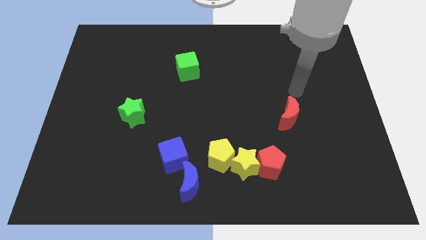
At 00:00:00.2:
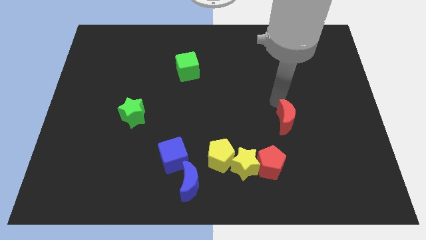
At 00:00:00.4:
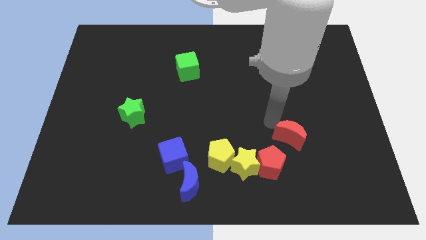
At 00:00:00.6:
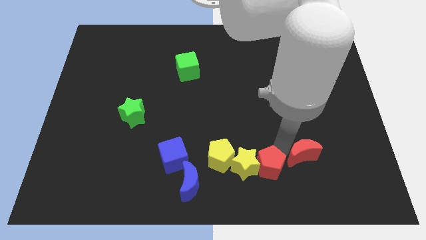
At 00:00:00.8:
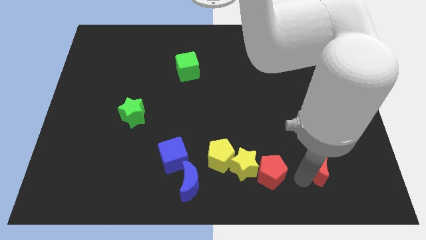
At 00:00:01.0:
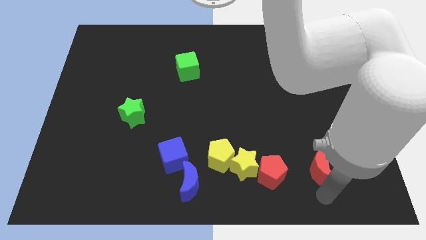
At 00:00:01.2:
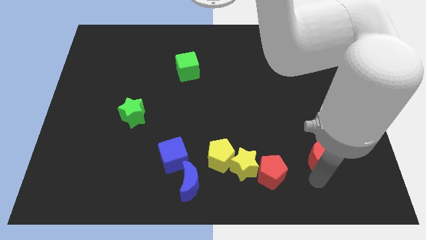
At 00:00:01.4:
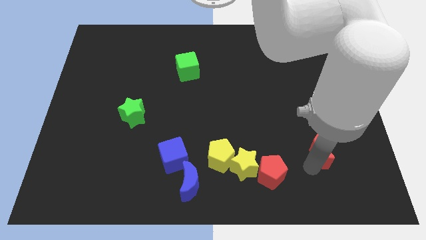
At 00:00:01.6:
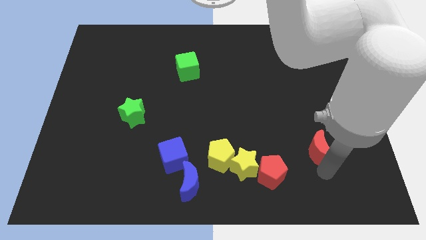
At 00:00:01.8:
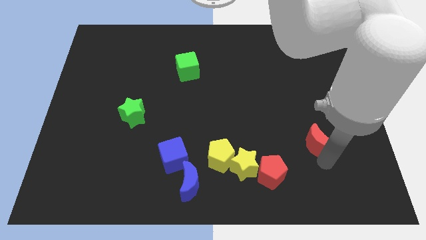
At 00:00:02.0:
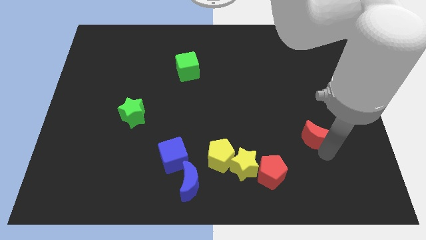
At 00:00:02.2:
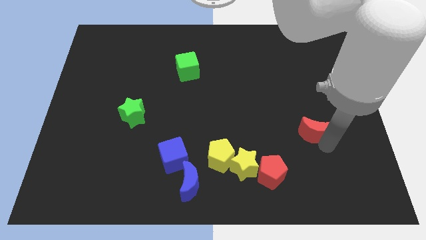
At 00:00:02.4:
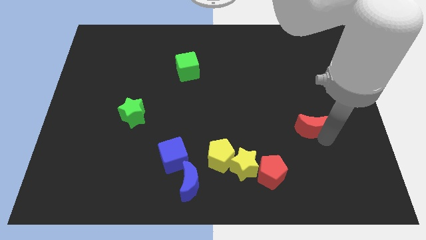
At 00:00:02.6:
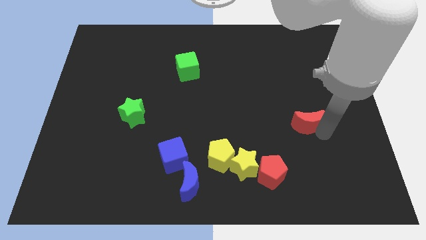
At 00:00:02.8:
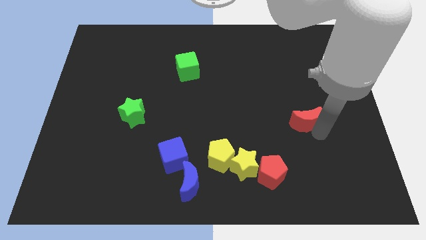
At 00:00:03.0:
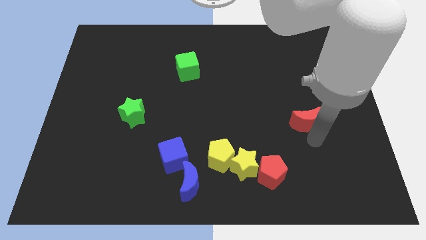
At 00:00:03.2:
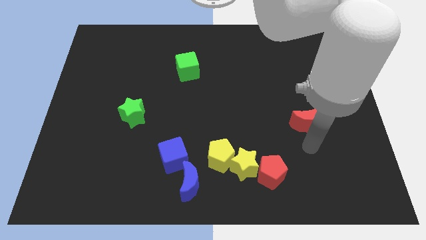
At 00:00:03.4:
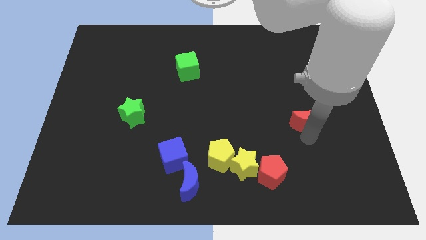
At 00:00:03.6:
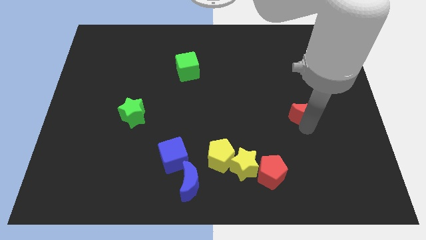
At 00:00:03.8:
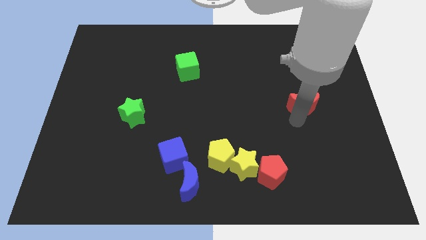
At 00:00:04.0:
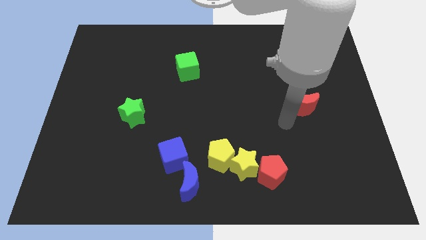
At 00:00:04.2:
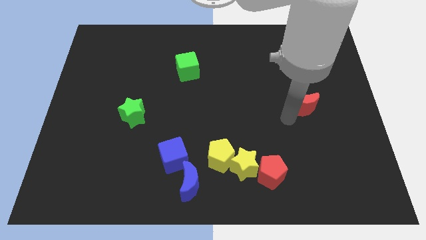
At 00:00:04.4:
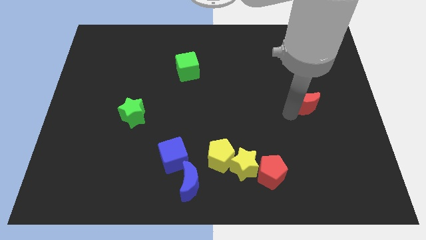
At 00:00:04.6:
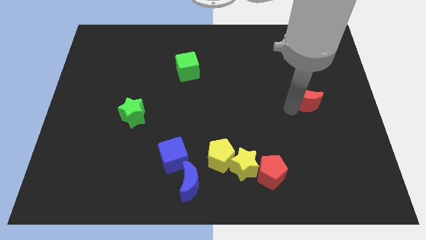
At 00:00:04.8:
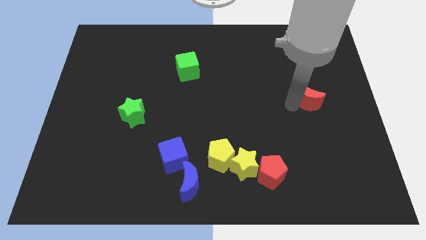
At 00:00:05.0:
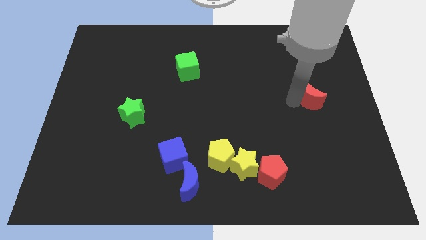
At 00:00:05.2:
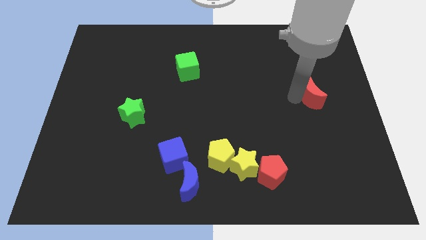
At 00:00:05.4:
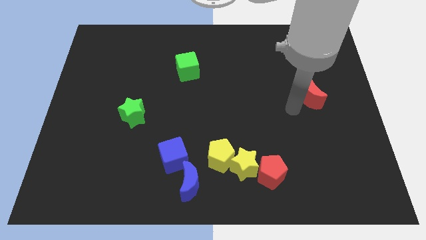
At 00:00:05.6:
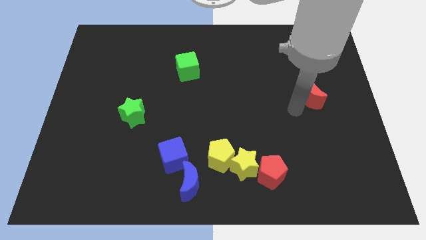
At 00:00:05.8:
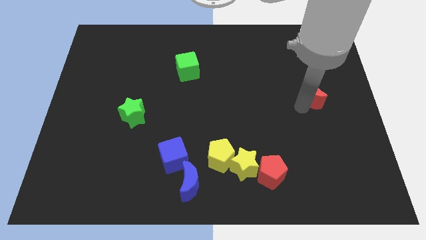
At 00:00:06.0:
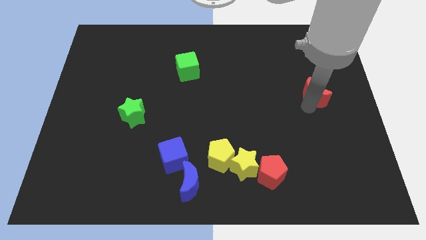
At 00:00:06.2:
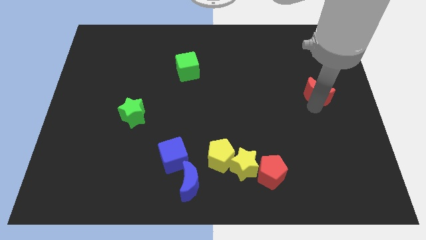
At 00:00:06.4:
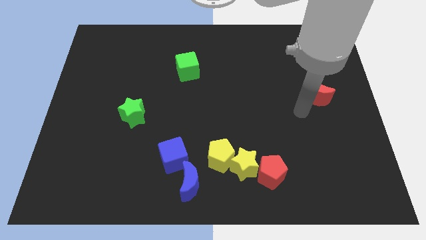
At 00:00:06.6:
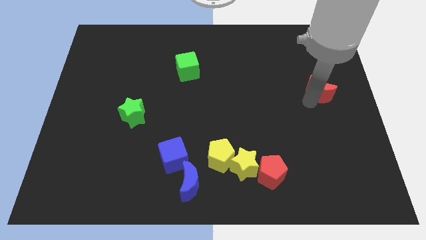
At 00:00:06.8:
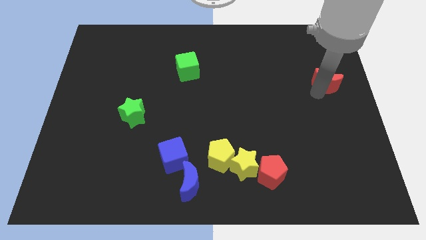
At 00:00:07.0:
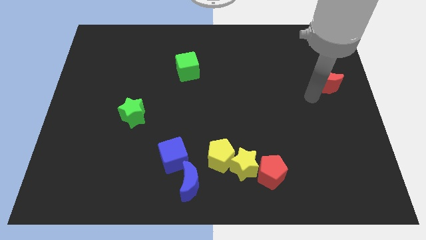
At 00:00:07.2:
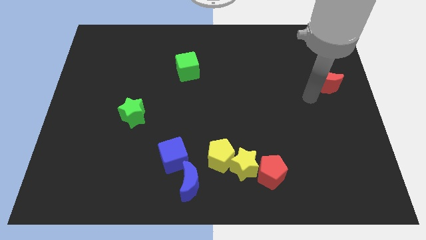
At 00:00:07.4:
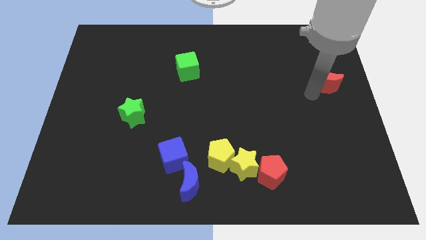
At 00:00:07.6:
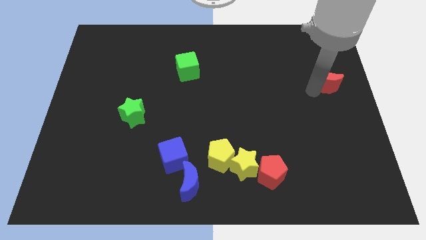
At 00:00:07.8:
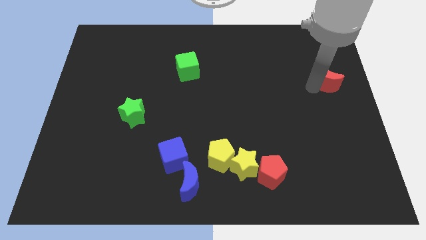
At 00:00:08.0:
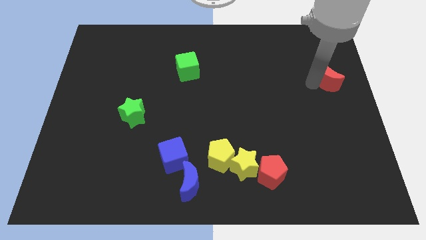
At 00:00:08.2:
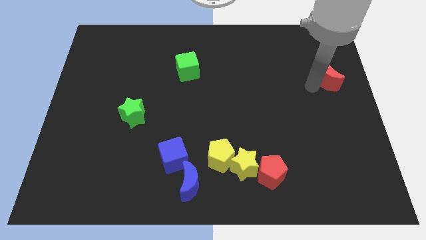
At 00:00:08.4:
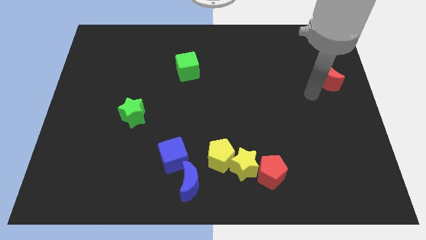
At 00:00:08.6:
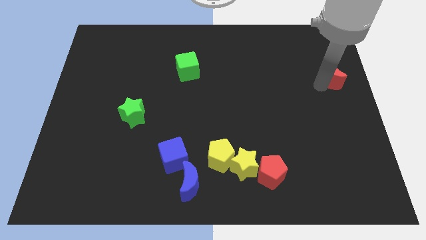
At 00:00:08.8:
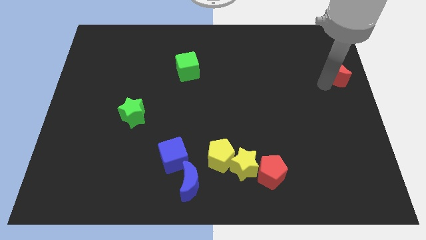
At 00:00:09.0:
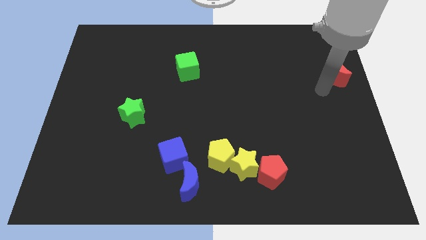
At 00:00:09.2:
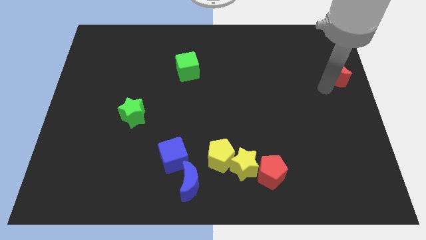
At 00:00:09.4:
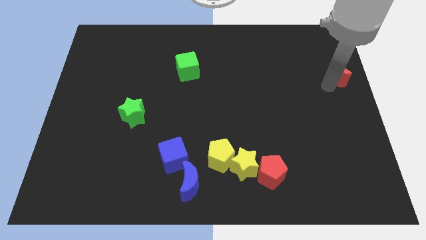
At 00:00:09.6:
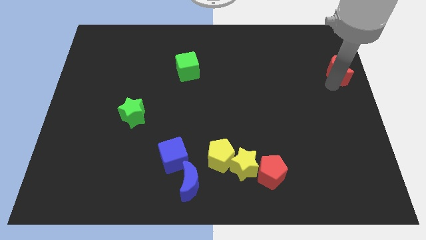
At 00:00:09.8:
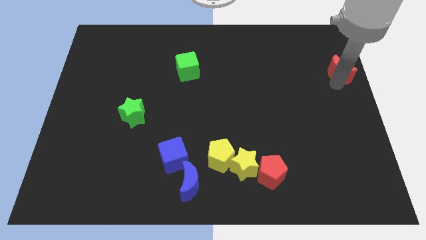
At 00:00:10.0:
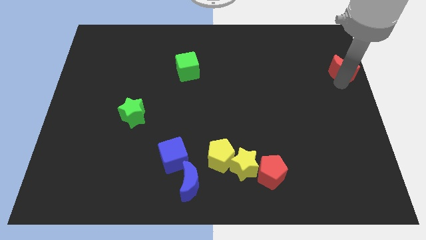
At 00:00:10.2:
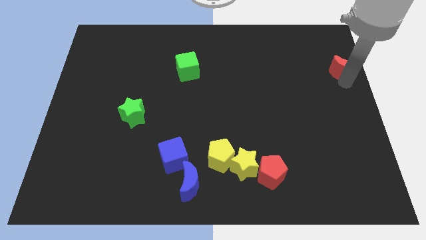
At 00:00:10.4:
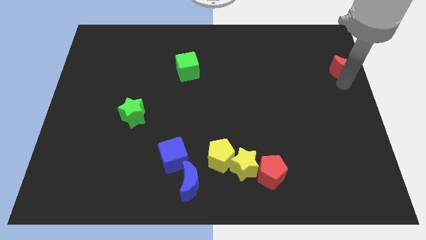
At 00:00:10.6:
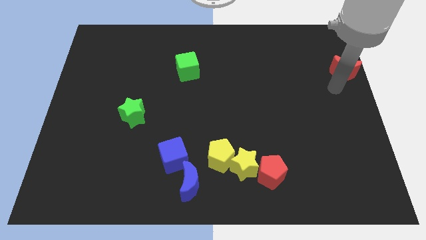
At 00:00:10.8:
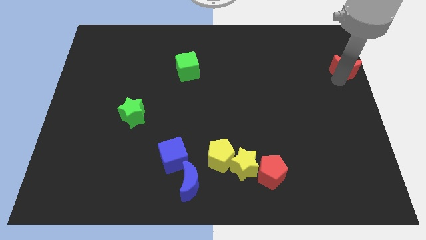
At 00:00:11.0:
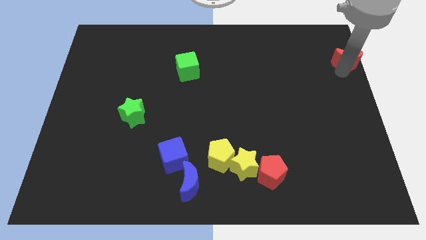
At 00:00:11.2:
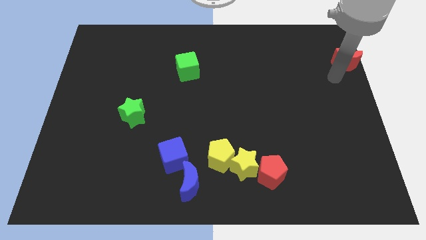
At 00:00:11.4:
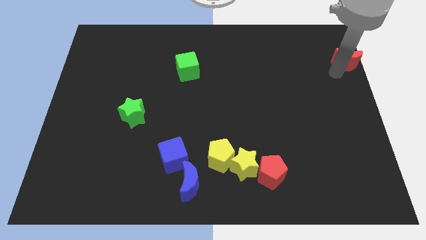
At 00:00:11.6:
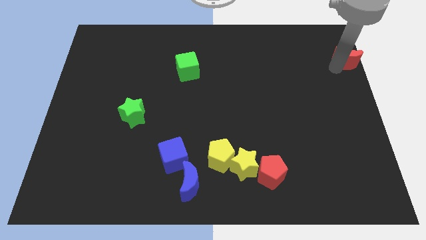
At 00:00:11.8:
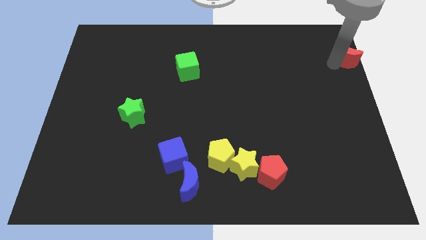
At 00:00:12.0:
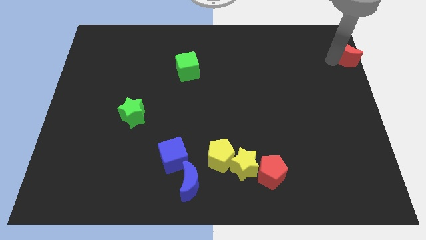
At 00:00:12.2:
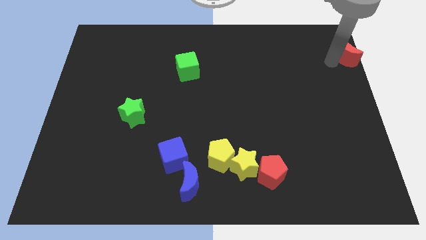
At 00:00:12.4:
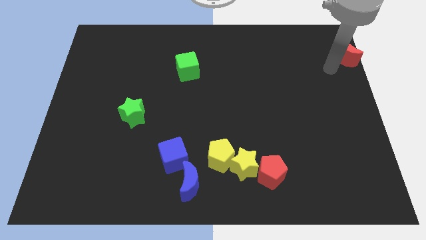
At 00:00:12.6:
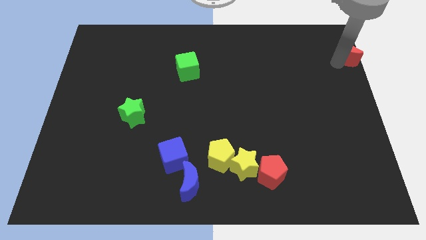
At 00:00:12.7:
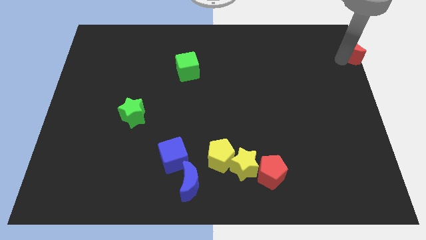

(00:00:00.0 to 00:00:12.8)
slide the red moon to the top right
